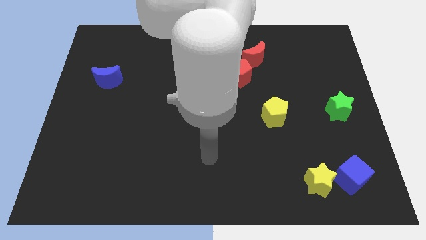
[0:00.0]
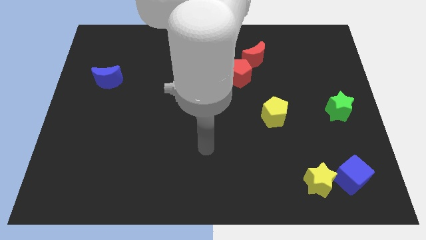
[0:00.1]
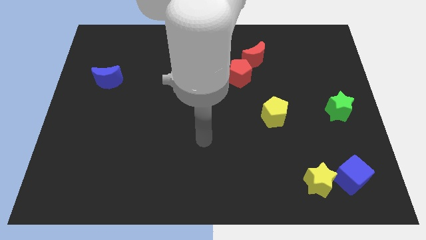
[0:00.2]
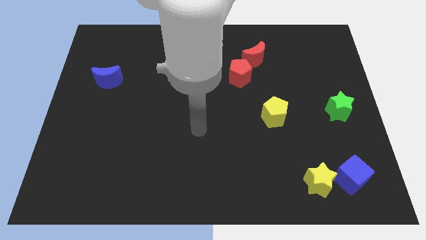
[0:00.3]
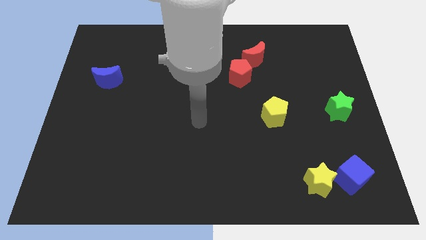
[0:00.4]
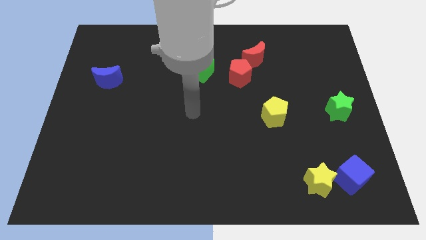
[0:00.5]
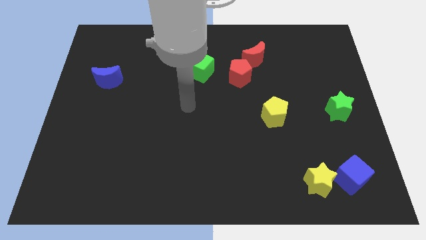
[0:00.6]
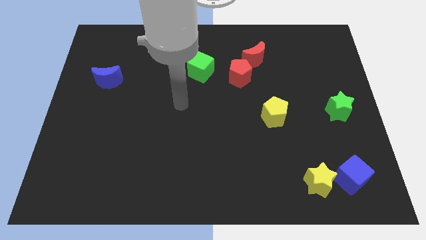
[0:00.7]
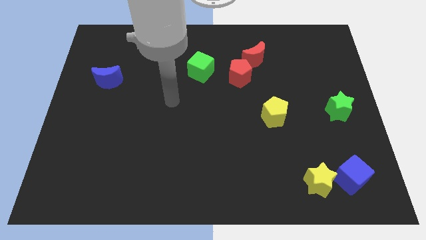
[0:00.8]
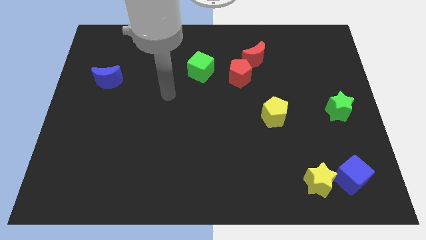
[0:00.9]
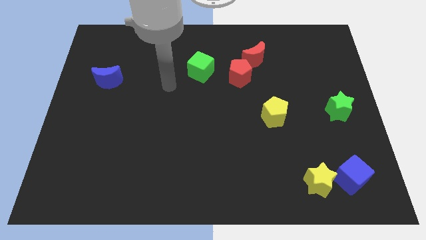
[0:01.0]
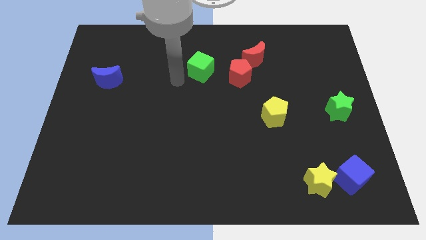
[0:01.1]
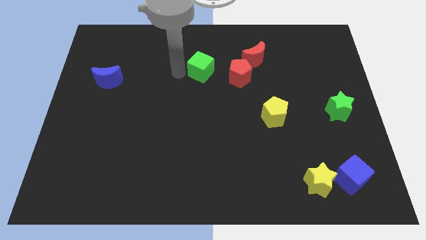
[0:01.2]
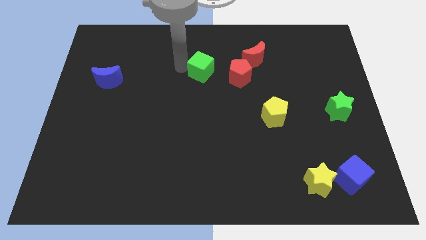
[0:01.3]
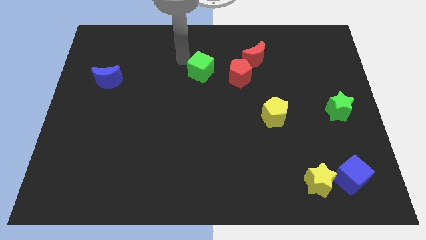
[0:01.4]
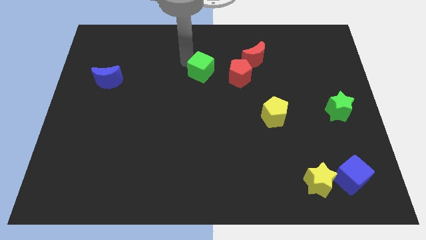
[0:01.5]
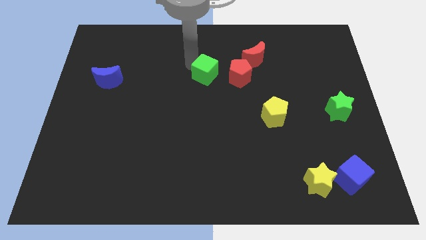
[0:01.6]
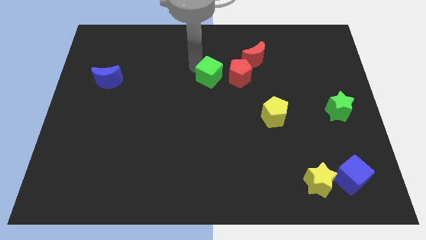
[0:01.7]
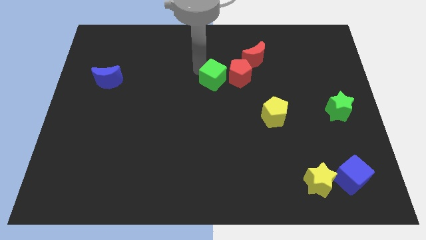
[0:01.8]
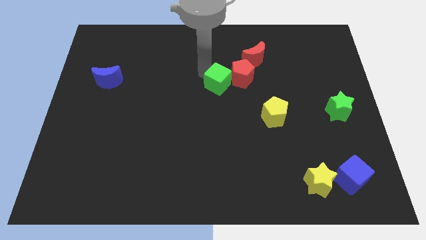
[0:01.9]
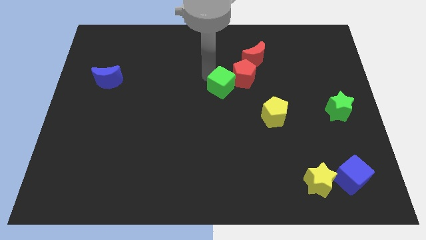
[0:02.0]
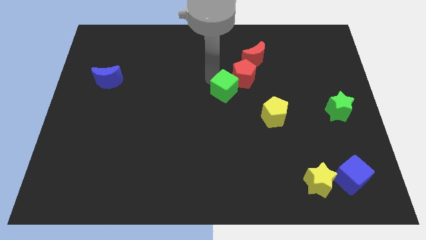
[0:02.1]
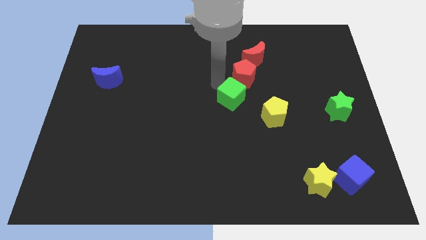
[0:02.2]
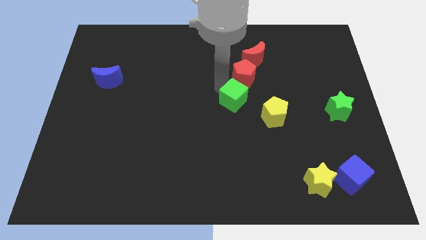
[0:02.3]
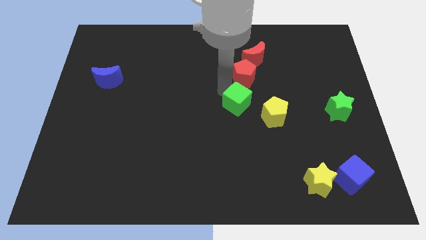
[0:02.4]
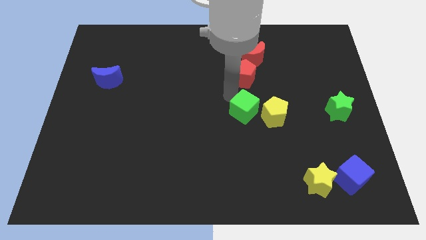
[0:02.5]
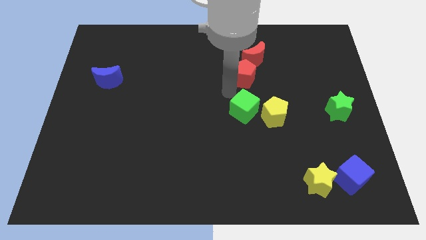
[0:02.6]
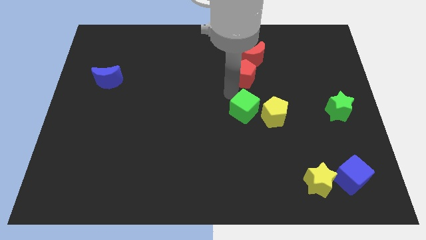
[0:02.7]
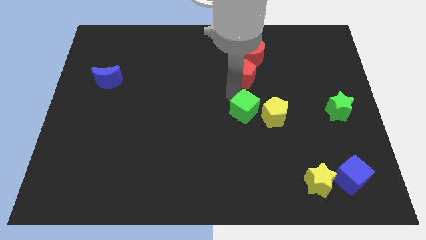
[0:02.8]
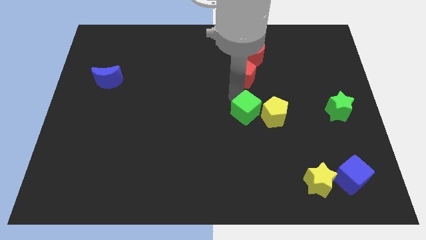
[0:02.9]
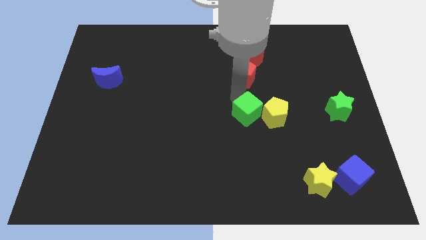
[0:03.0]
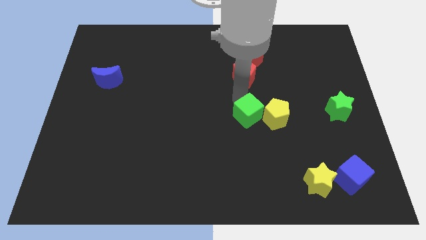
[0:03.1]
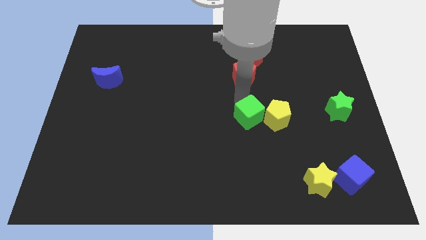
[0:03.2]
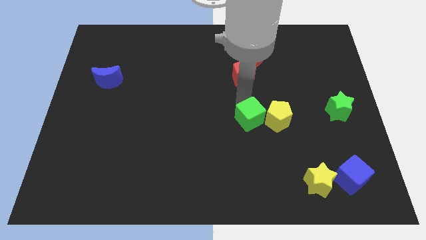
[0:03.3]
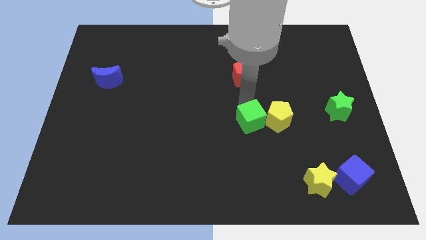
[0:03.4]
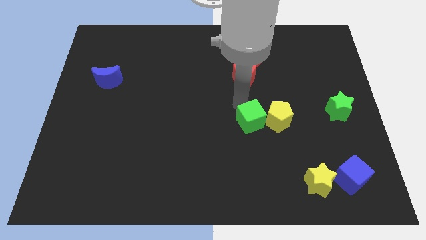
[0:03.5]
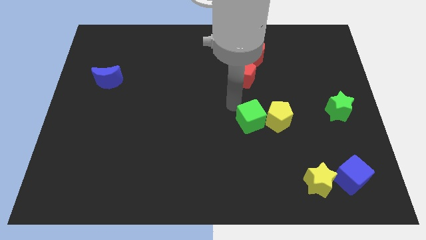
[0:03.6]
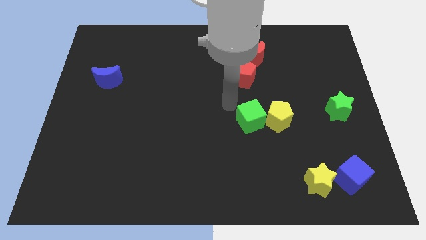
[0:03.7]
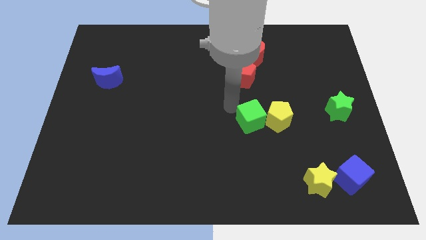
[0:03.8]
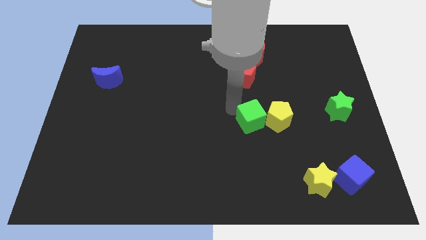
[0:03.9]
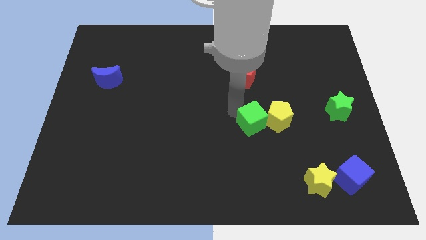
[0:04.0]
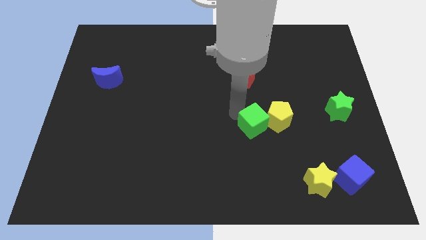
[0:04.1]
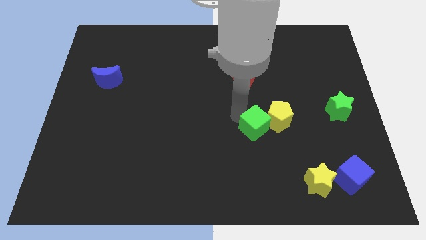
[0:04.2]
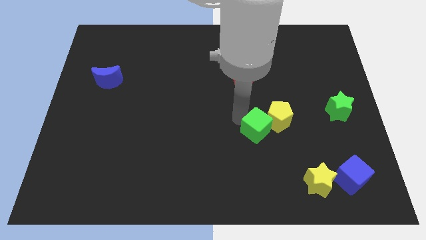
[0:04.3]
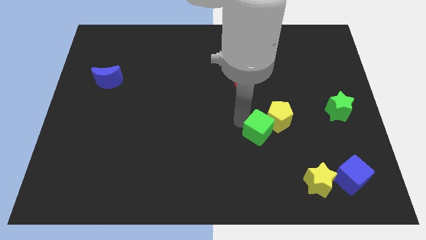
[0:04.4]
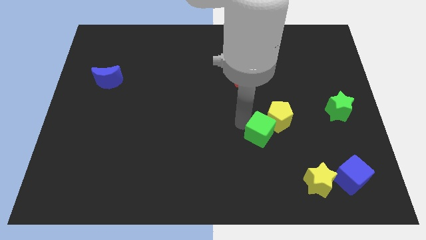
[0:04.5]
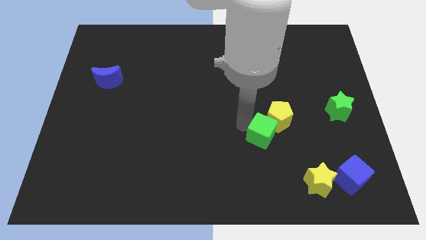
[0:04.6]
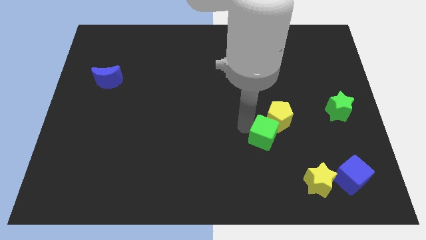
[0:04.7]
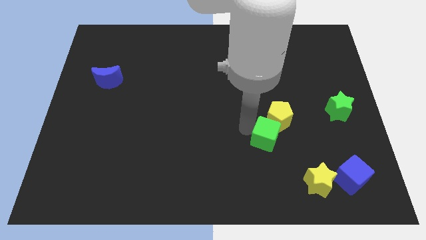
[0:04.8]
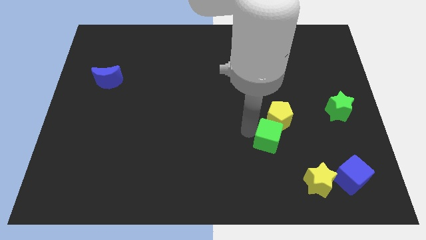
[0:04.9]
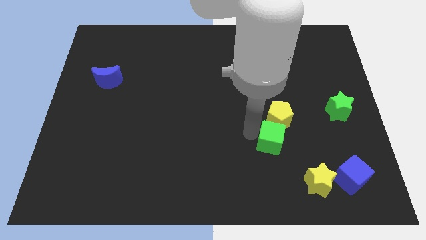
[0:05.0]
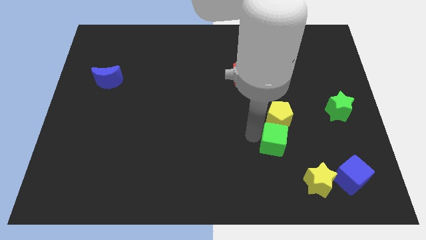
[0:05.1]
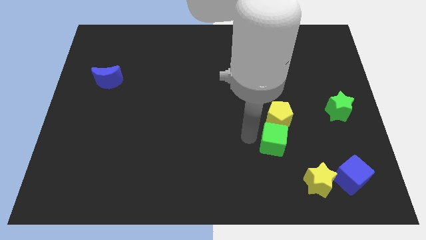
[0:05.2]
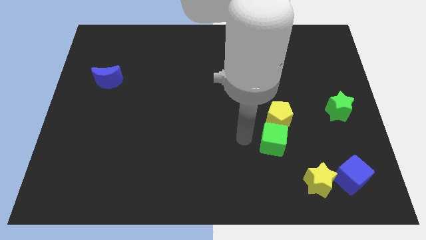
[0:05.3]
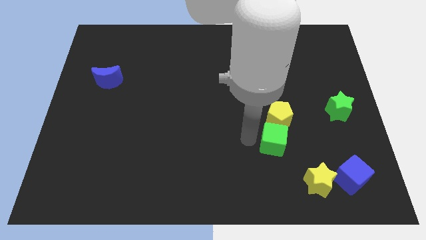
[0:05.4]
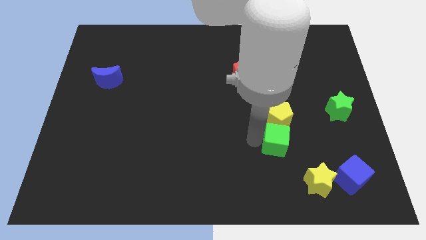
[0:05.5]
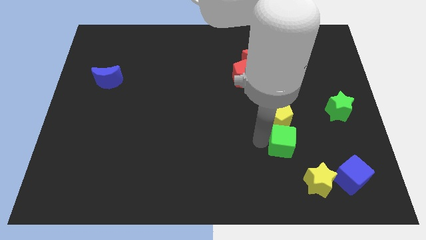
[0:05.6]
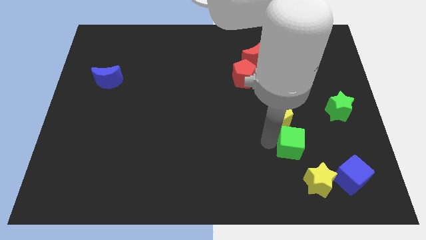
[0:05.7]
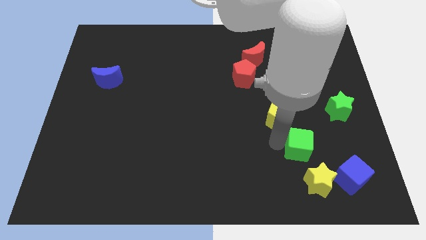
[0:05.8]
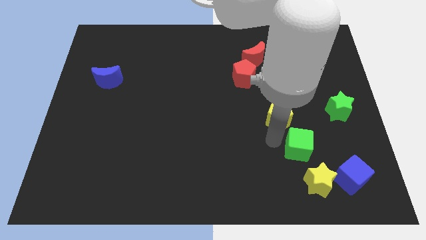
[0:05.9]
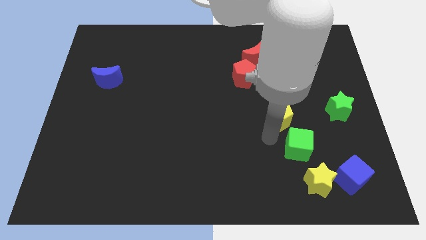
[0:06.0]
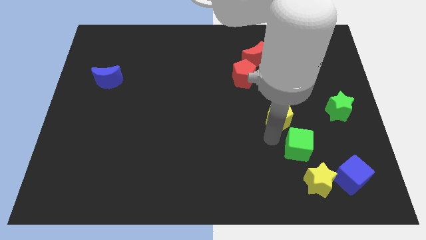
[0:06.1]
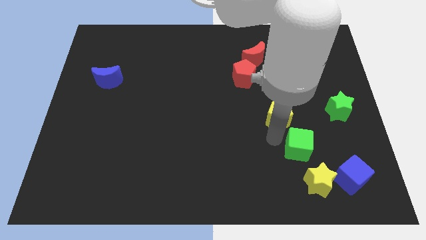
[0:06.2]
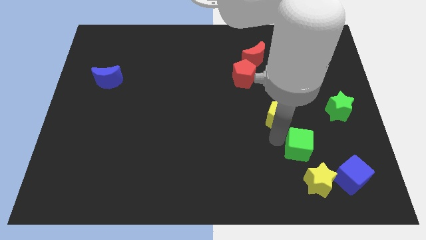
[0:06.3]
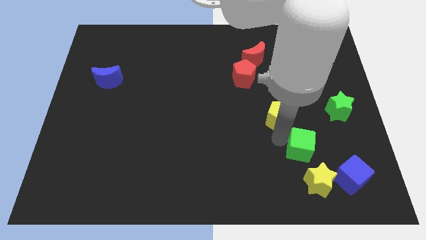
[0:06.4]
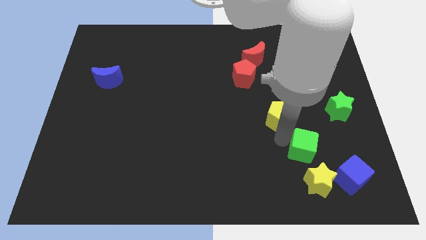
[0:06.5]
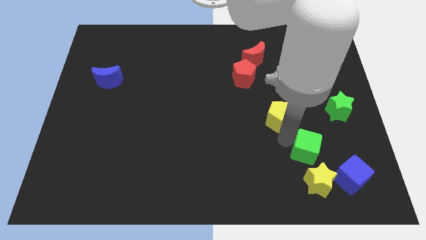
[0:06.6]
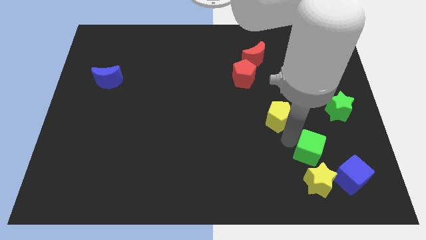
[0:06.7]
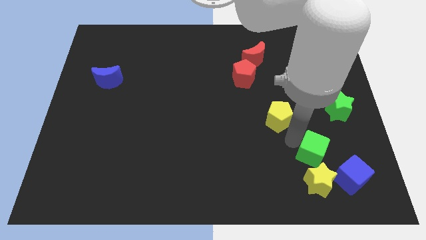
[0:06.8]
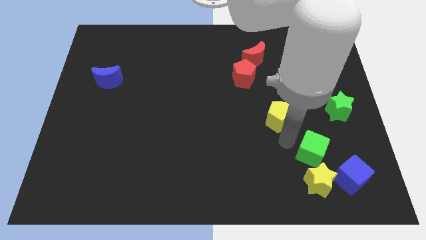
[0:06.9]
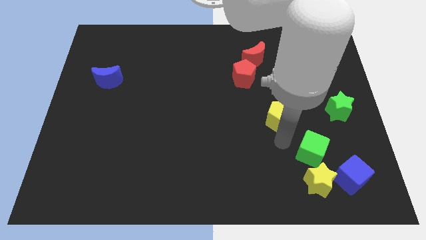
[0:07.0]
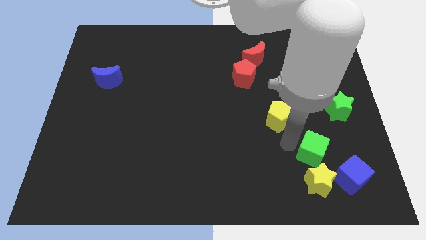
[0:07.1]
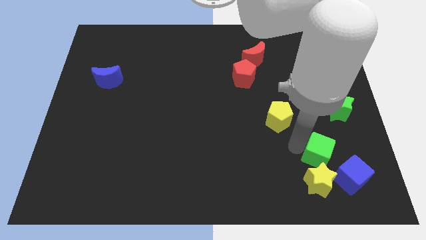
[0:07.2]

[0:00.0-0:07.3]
put the green cube to the top right side of the yellow star

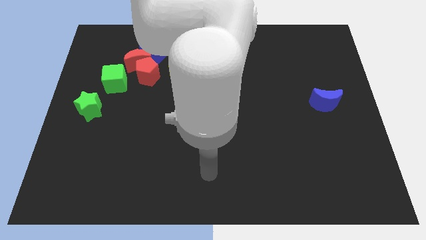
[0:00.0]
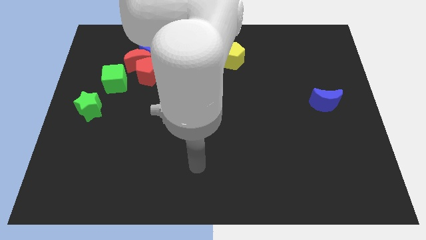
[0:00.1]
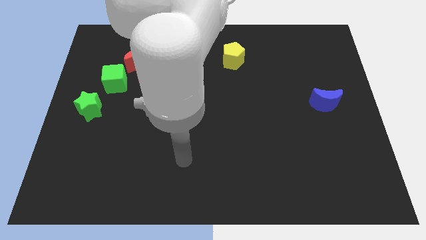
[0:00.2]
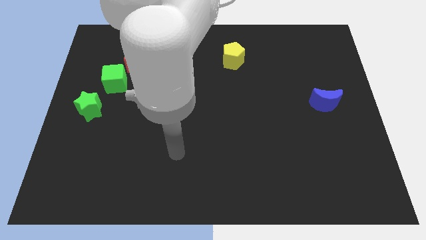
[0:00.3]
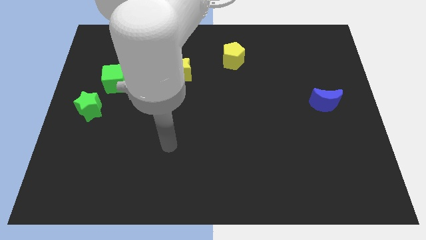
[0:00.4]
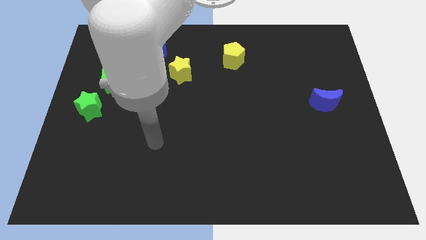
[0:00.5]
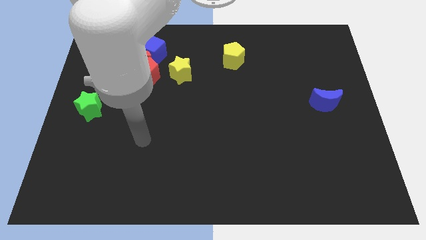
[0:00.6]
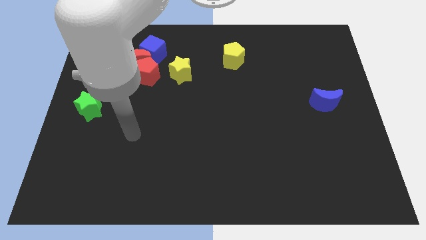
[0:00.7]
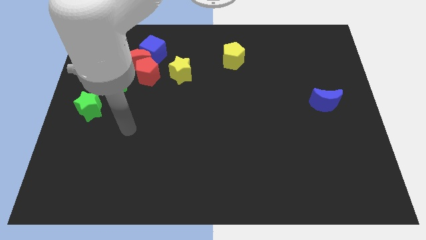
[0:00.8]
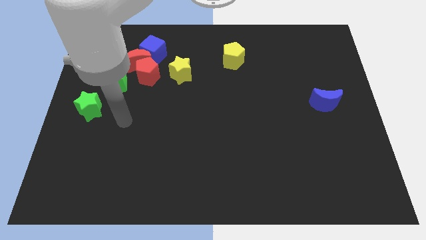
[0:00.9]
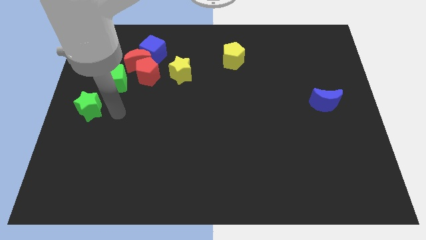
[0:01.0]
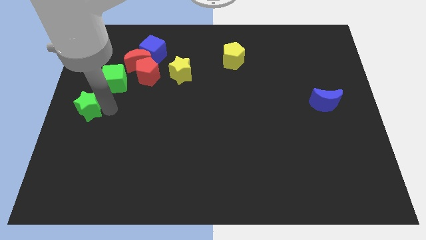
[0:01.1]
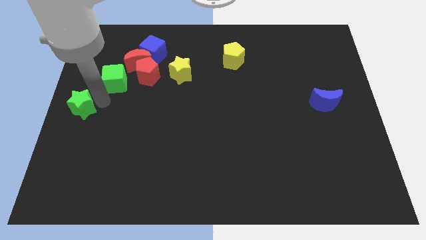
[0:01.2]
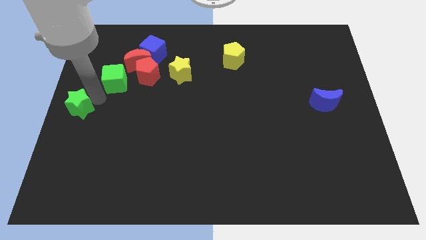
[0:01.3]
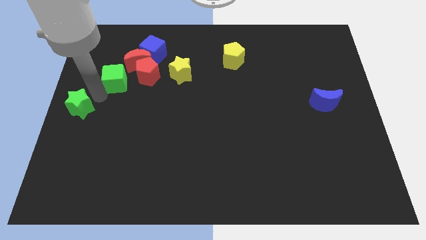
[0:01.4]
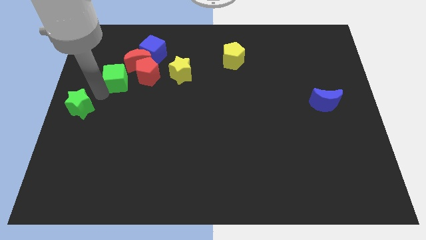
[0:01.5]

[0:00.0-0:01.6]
push the green cube to the bottom left side of the blue cube
